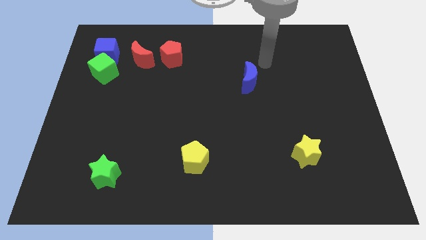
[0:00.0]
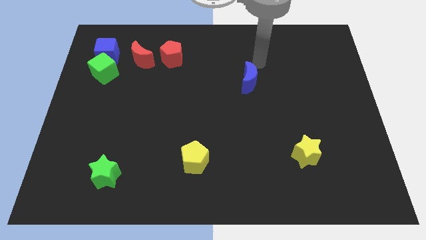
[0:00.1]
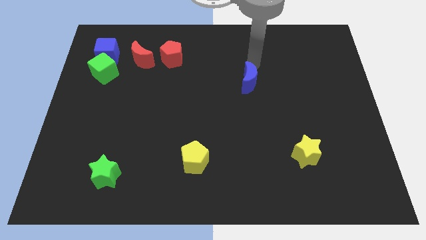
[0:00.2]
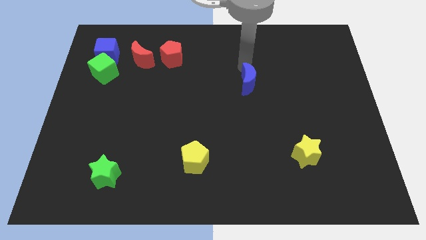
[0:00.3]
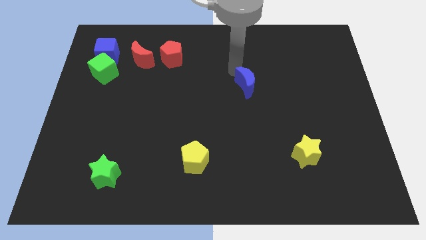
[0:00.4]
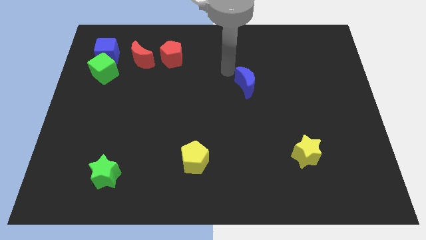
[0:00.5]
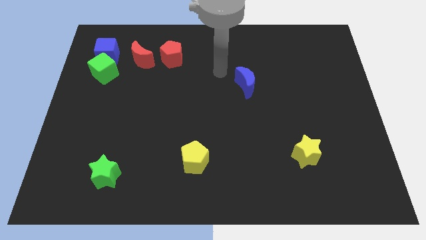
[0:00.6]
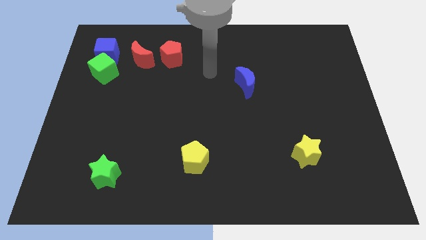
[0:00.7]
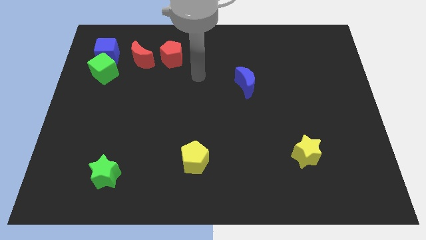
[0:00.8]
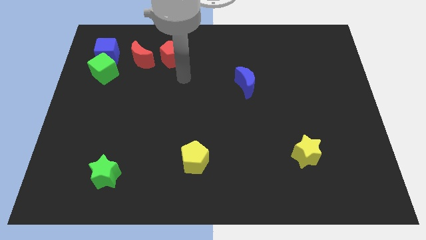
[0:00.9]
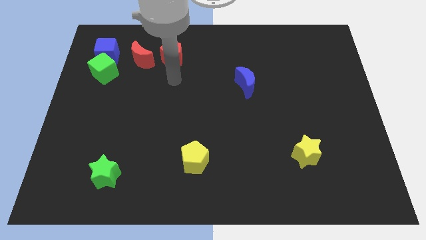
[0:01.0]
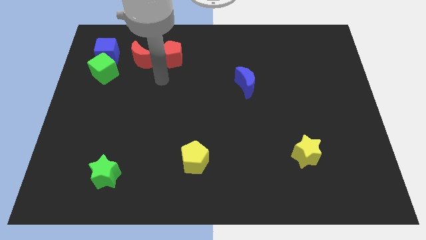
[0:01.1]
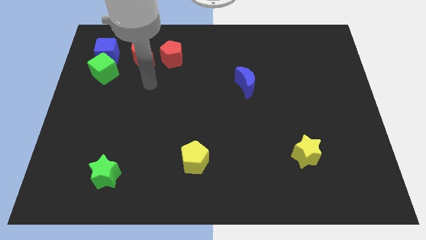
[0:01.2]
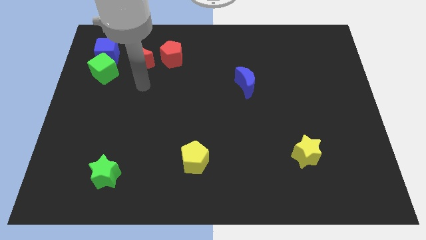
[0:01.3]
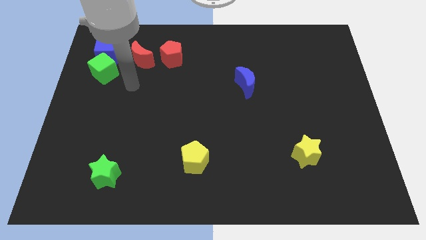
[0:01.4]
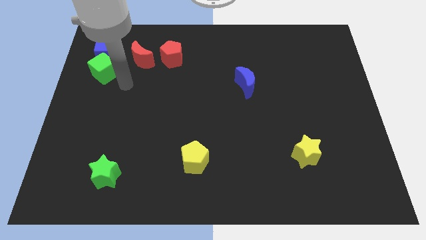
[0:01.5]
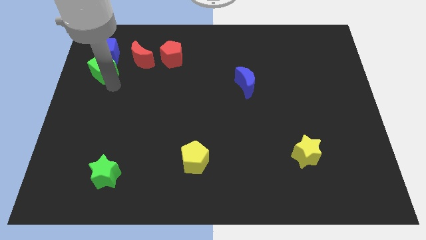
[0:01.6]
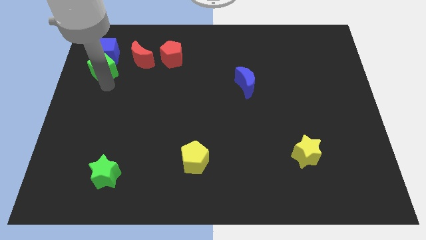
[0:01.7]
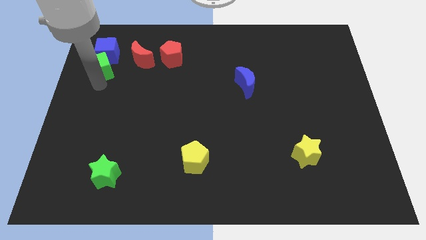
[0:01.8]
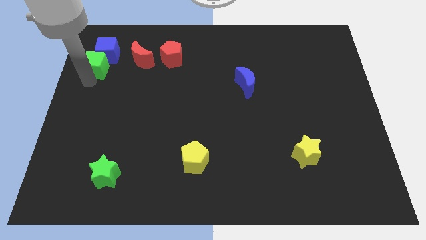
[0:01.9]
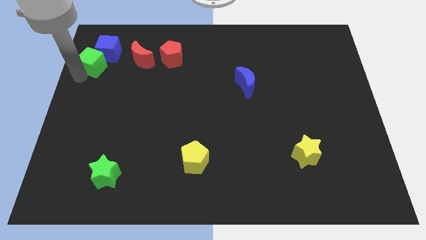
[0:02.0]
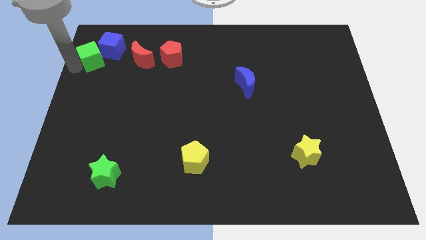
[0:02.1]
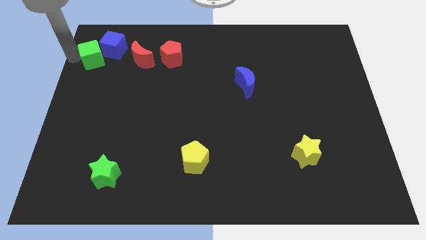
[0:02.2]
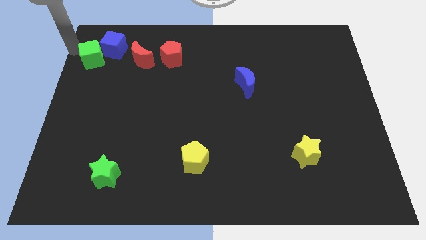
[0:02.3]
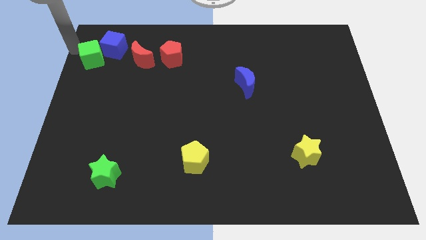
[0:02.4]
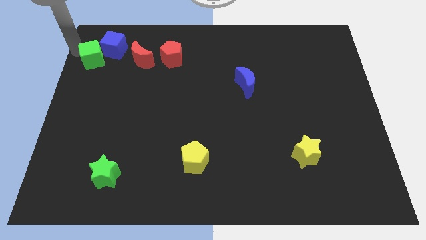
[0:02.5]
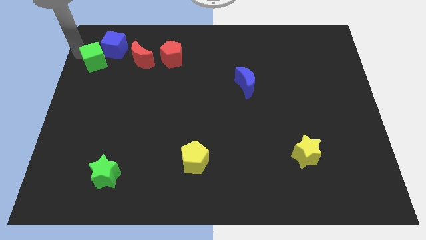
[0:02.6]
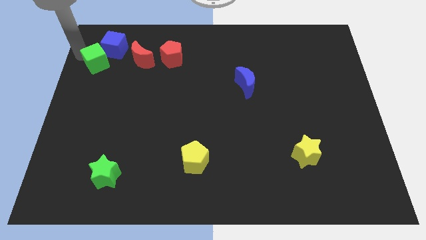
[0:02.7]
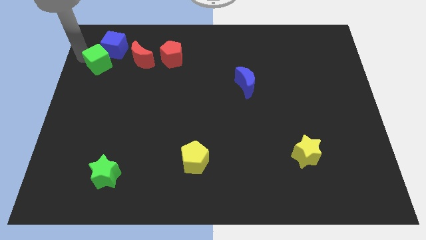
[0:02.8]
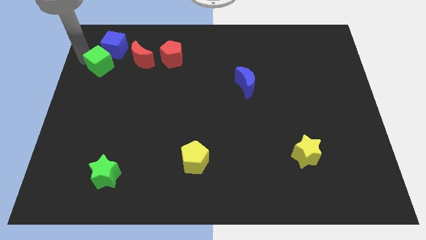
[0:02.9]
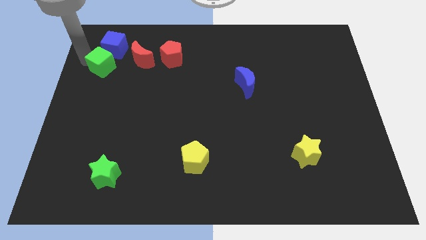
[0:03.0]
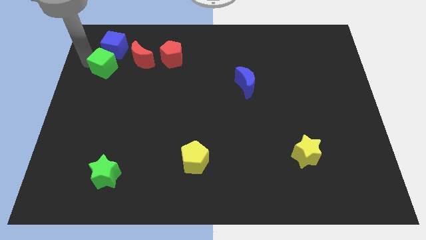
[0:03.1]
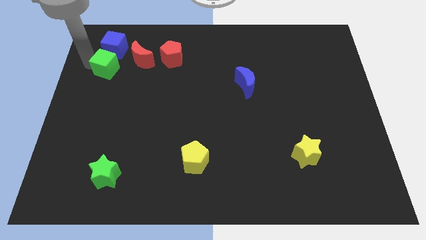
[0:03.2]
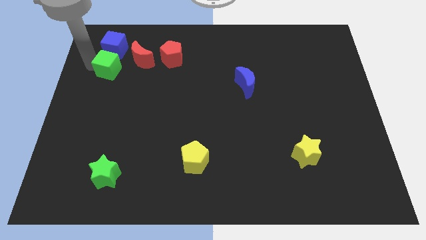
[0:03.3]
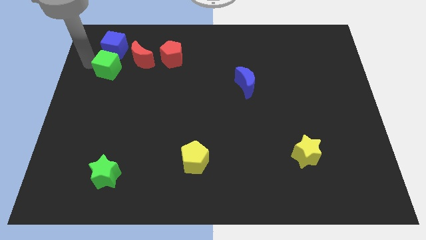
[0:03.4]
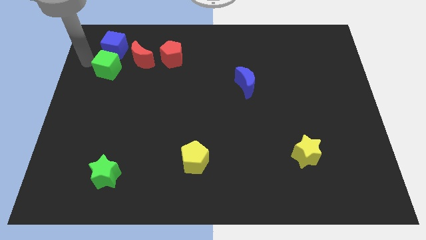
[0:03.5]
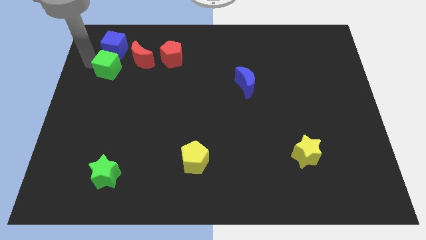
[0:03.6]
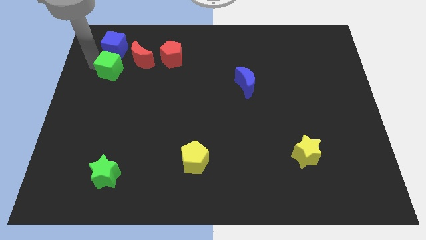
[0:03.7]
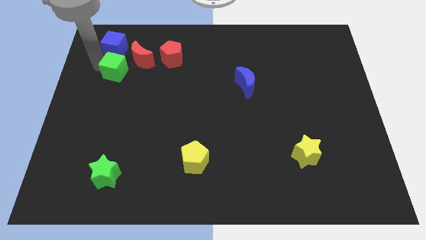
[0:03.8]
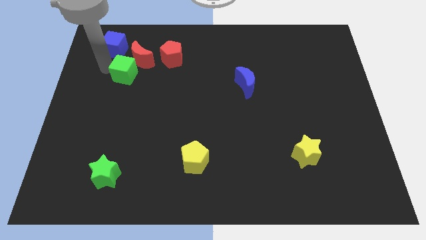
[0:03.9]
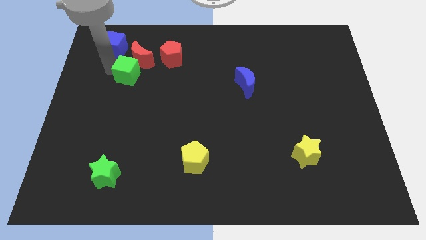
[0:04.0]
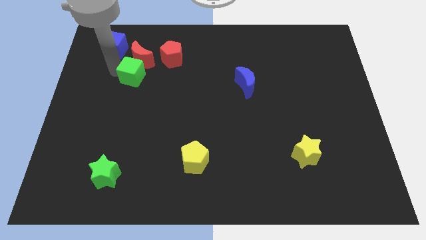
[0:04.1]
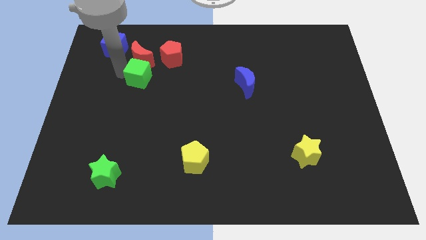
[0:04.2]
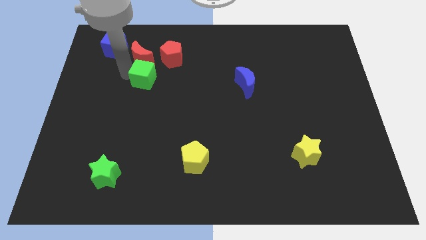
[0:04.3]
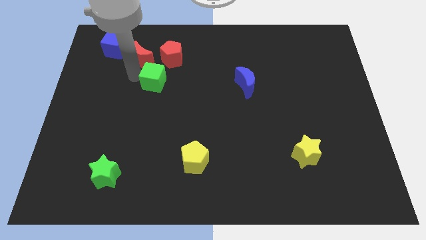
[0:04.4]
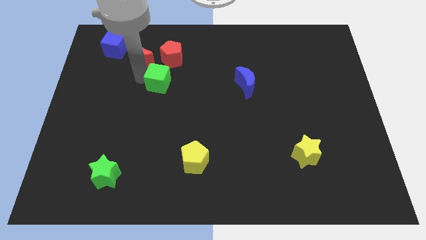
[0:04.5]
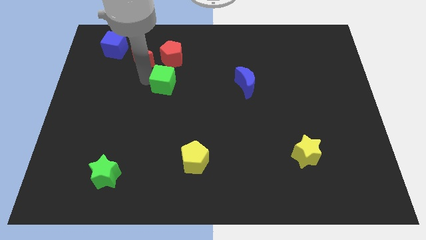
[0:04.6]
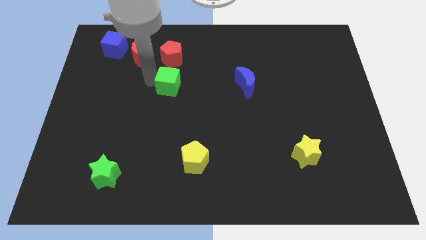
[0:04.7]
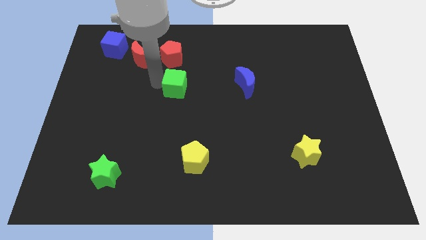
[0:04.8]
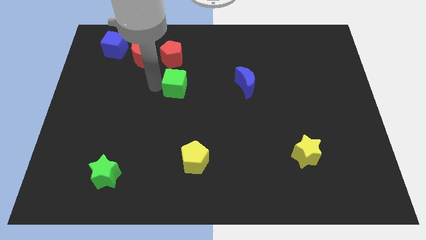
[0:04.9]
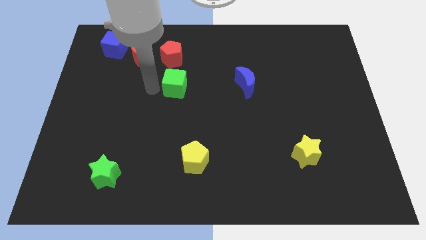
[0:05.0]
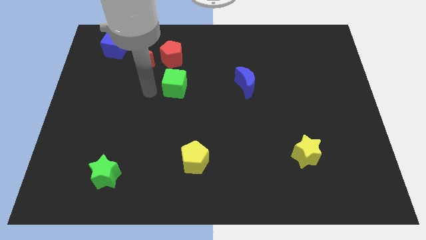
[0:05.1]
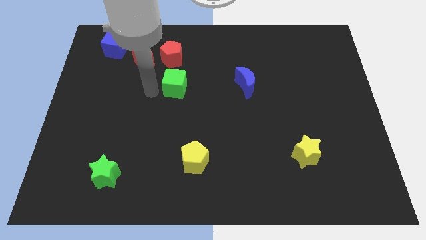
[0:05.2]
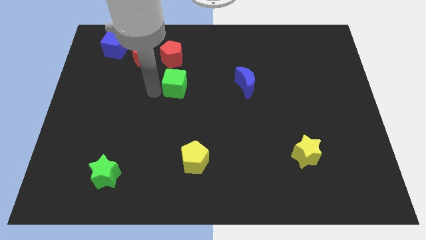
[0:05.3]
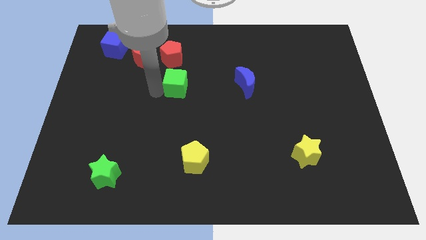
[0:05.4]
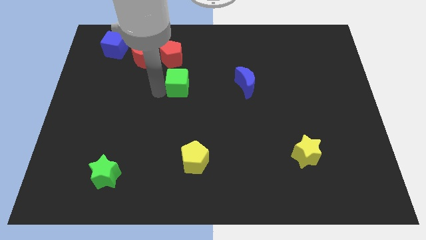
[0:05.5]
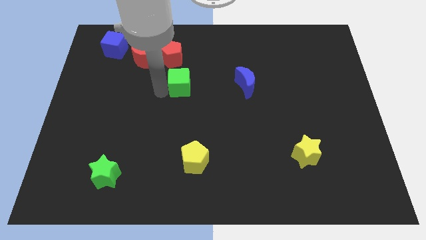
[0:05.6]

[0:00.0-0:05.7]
push the green cube to the left of the blue moon

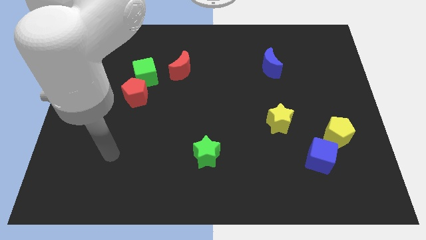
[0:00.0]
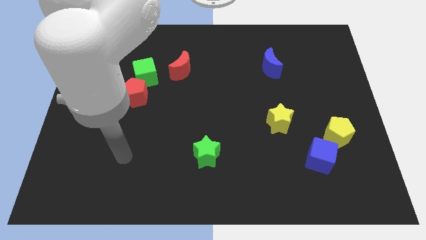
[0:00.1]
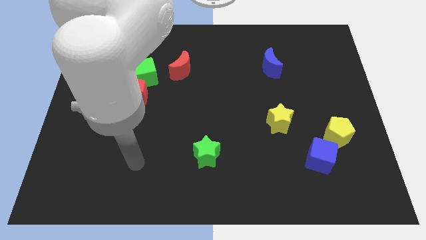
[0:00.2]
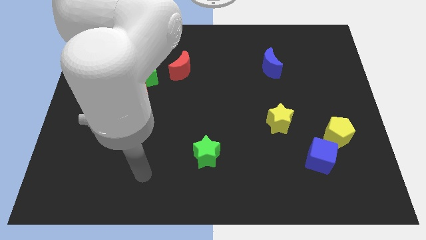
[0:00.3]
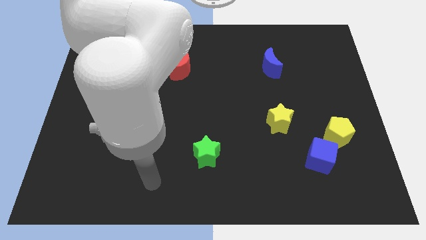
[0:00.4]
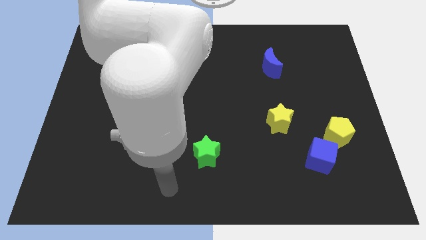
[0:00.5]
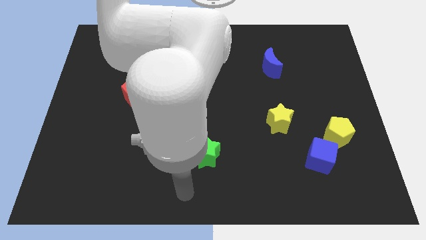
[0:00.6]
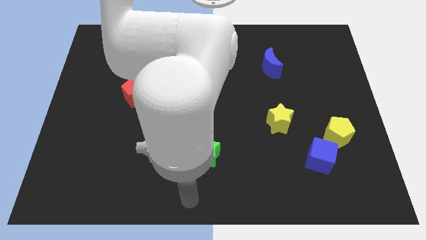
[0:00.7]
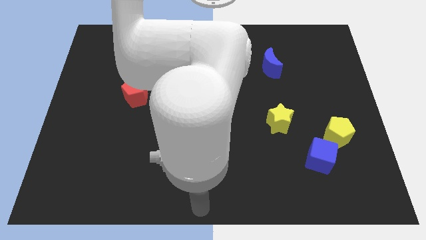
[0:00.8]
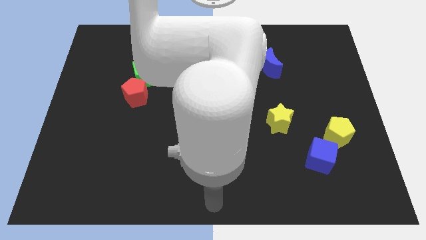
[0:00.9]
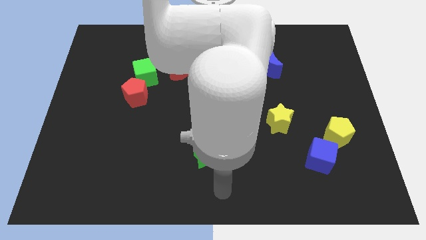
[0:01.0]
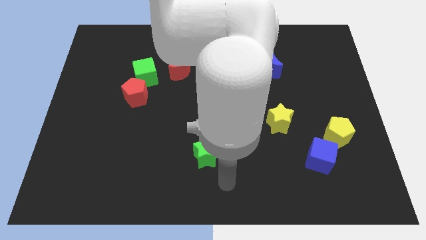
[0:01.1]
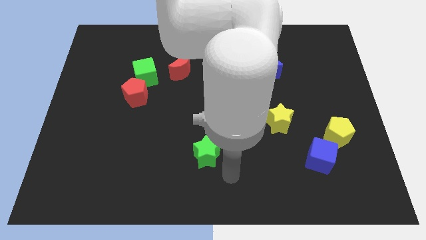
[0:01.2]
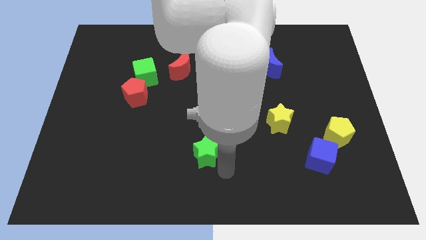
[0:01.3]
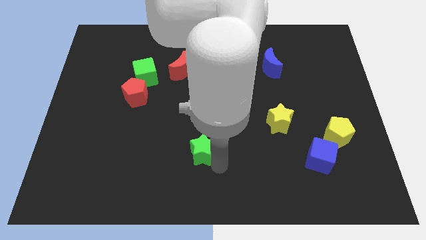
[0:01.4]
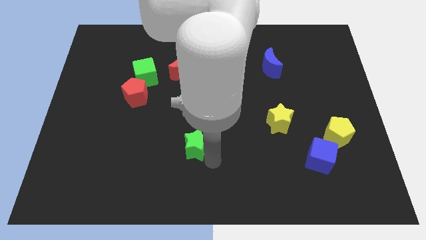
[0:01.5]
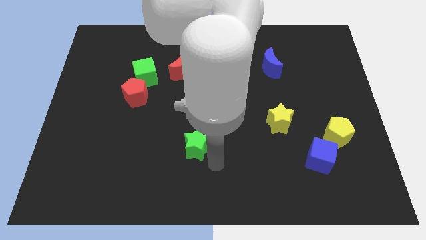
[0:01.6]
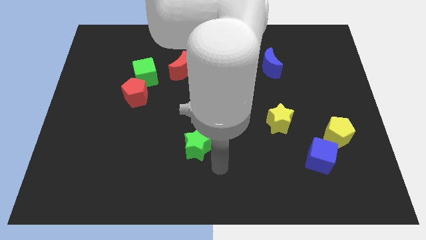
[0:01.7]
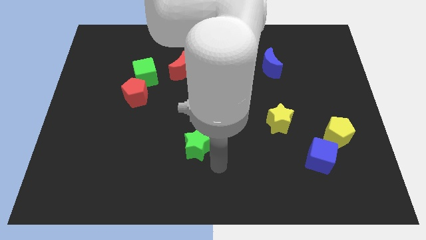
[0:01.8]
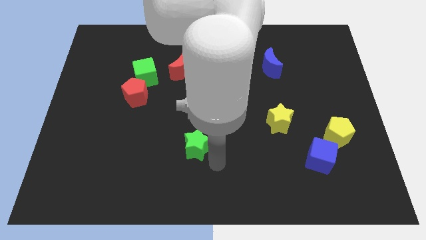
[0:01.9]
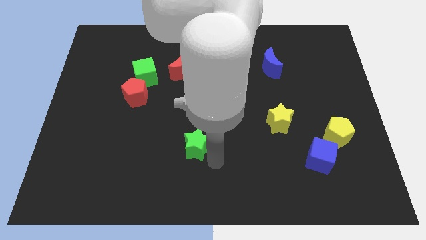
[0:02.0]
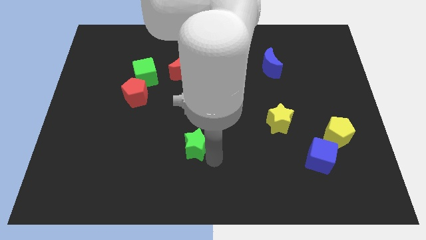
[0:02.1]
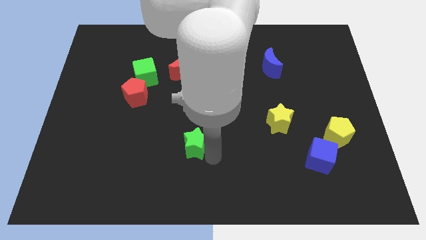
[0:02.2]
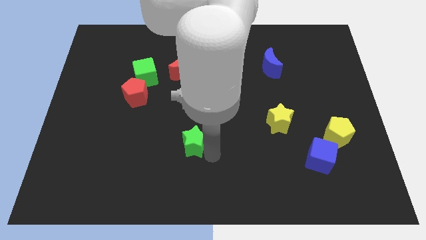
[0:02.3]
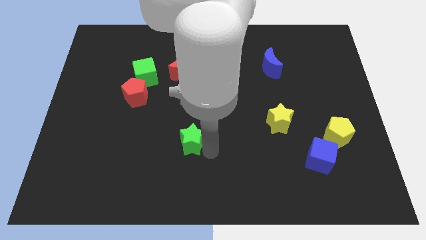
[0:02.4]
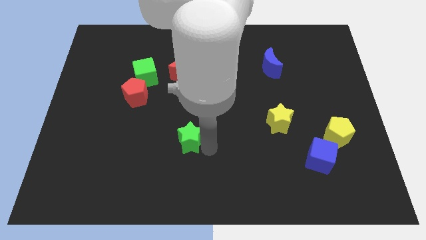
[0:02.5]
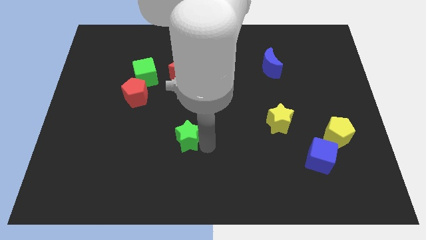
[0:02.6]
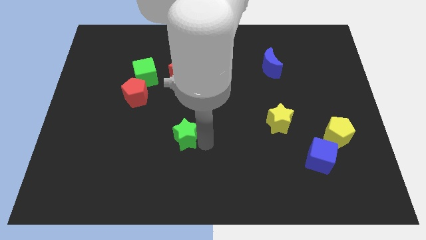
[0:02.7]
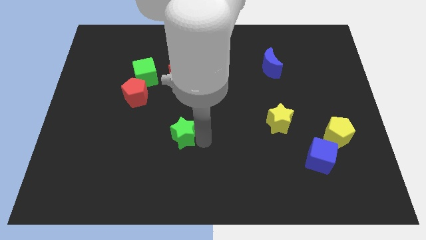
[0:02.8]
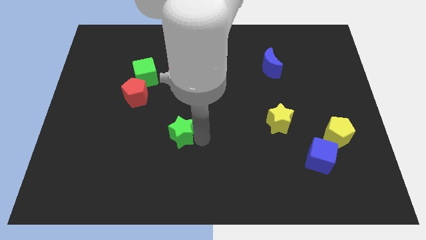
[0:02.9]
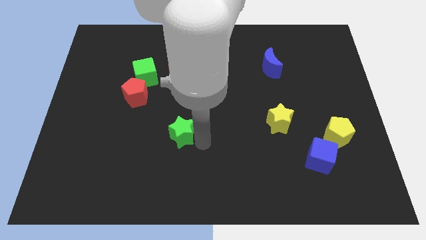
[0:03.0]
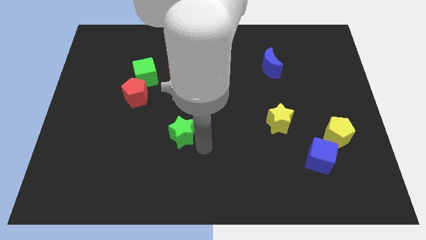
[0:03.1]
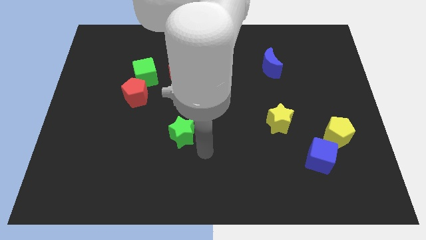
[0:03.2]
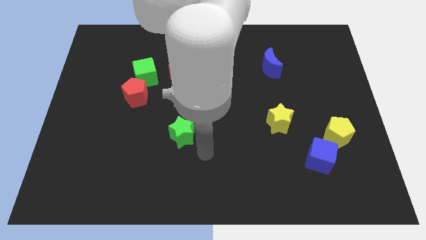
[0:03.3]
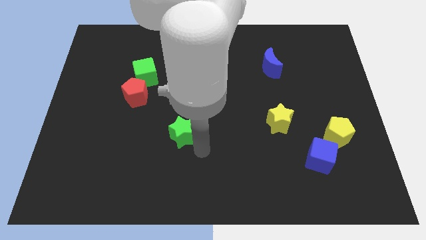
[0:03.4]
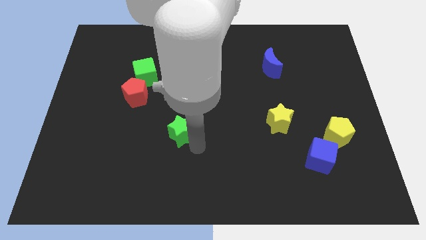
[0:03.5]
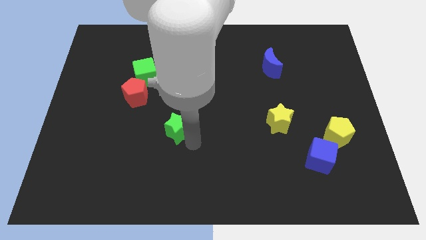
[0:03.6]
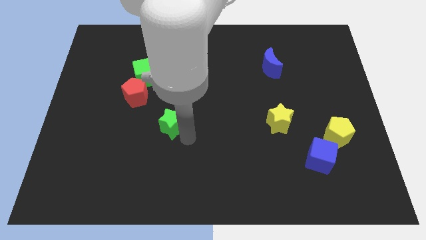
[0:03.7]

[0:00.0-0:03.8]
push the green star to the bottom right of the red pentagon
